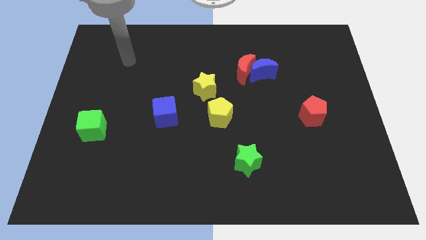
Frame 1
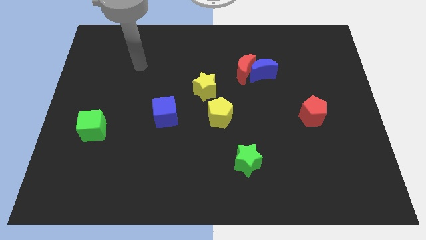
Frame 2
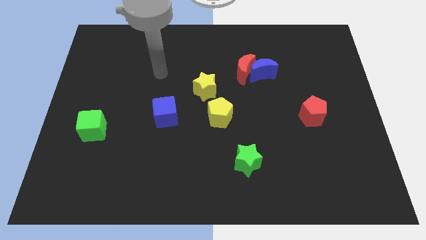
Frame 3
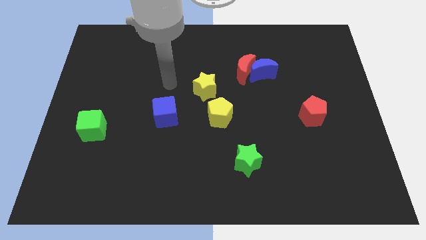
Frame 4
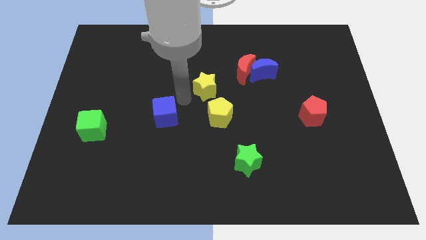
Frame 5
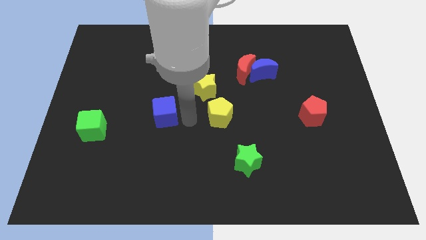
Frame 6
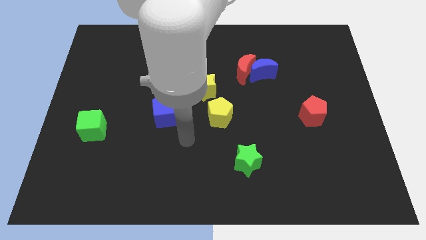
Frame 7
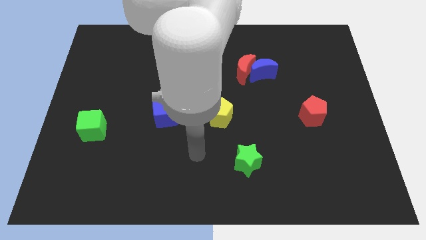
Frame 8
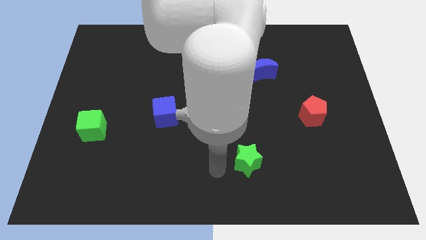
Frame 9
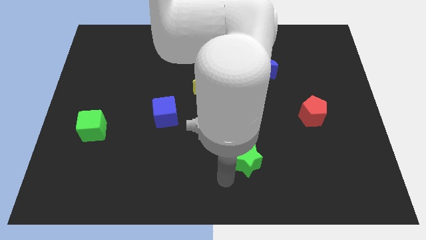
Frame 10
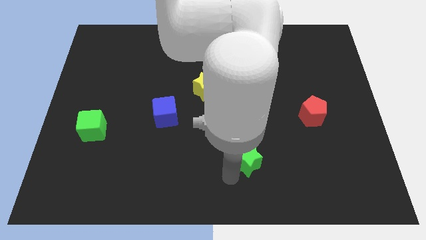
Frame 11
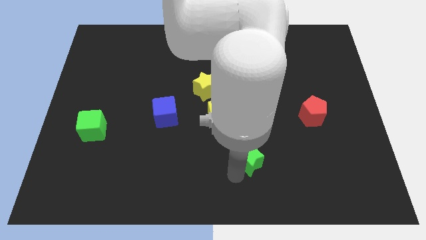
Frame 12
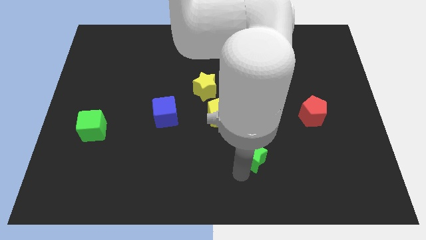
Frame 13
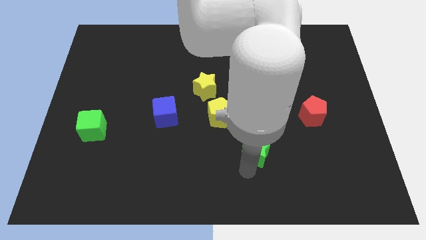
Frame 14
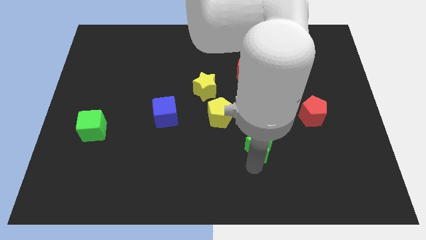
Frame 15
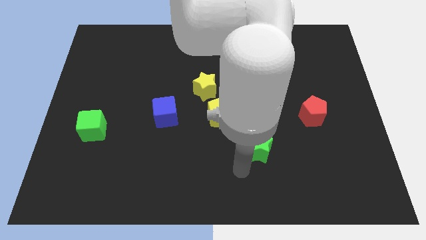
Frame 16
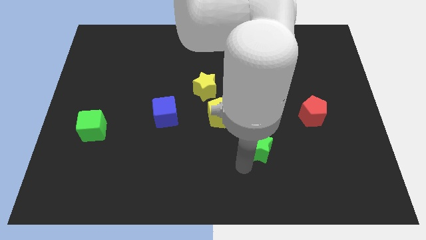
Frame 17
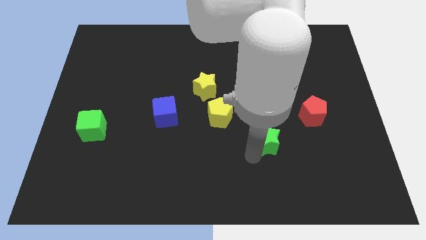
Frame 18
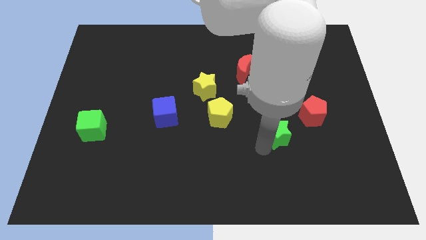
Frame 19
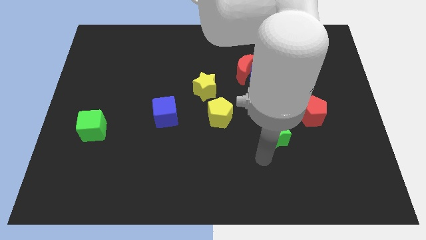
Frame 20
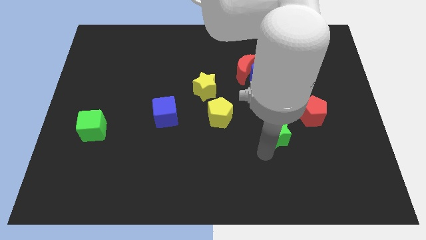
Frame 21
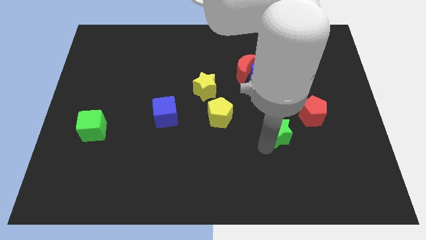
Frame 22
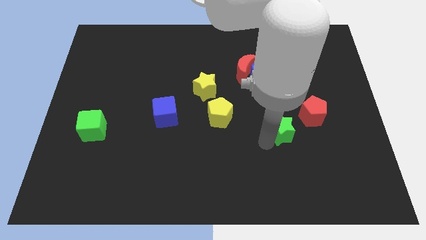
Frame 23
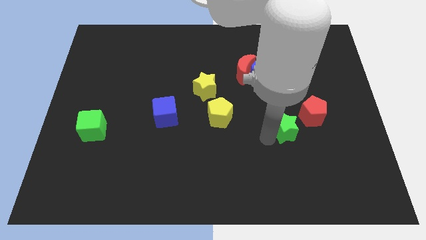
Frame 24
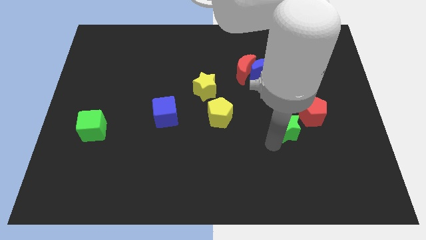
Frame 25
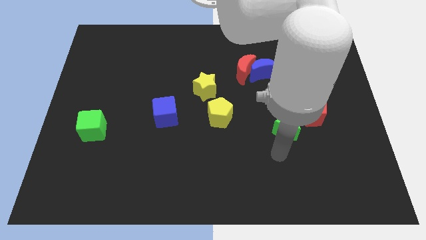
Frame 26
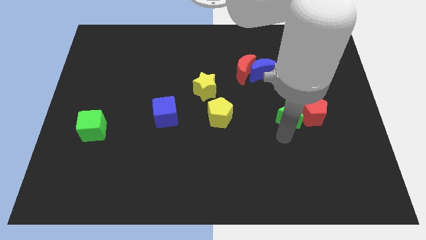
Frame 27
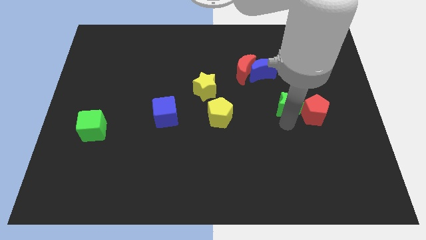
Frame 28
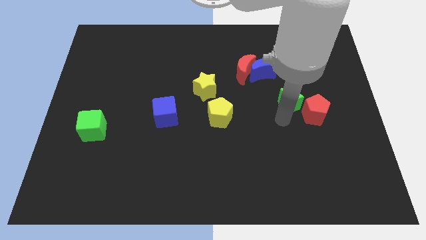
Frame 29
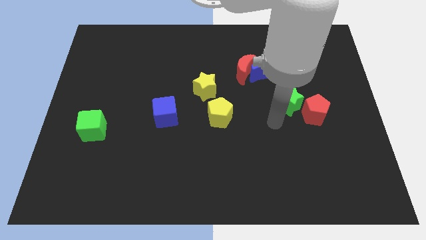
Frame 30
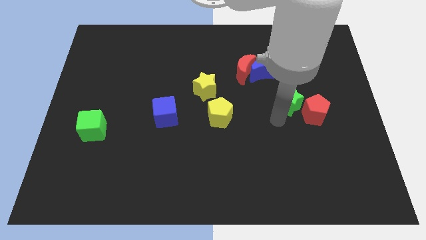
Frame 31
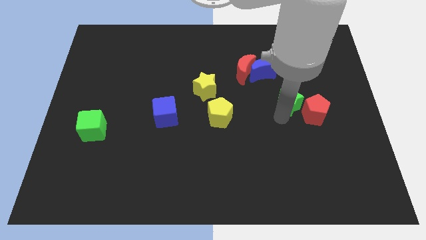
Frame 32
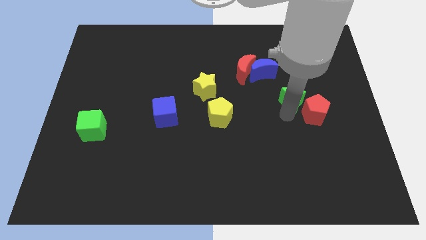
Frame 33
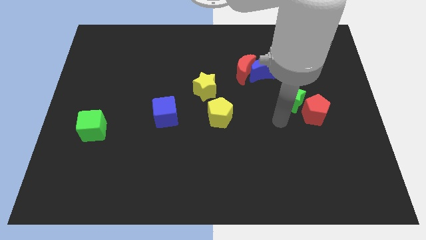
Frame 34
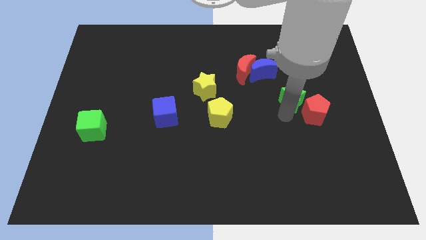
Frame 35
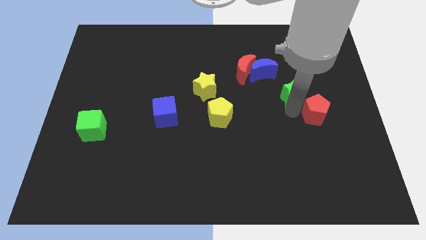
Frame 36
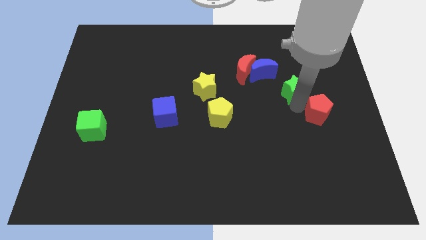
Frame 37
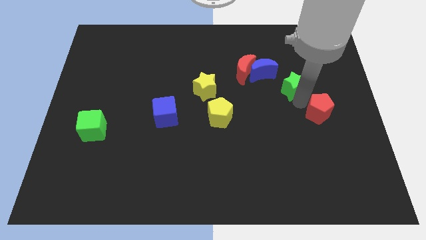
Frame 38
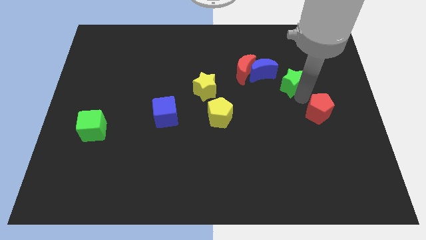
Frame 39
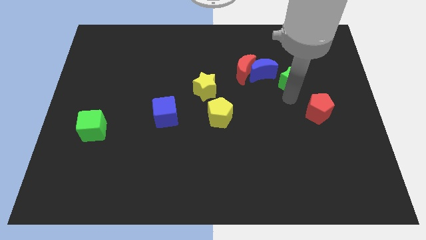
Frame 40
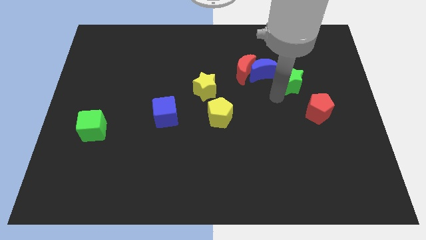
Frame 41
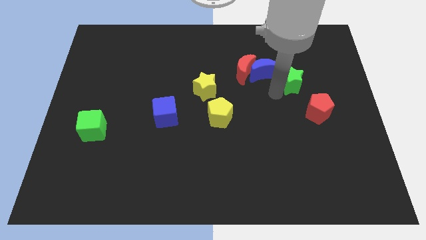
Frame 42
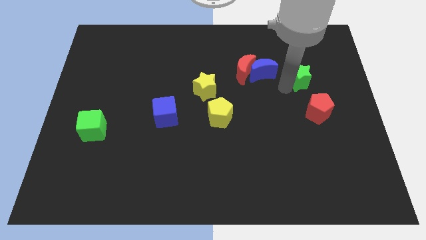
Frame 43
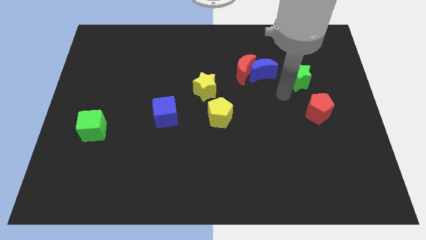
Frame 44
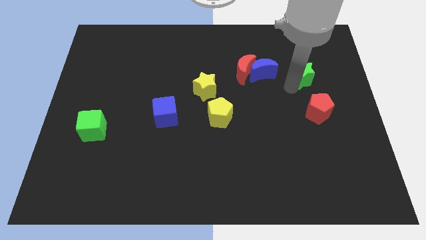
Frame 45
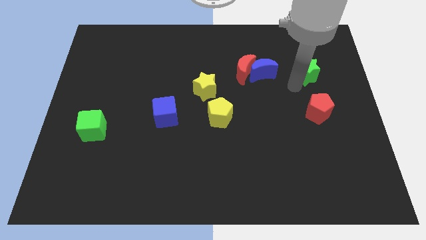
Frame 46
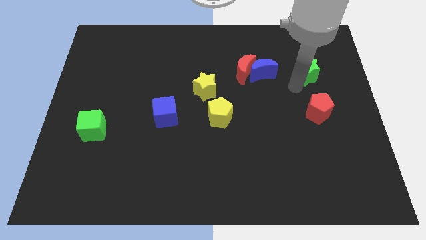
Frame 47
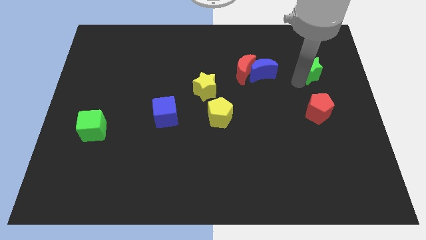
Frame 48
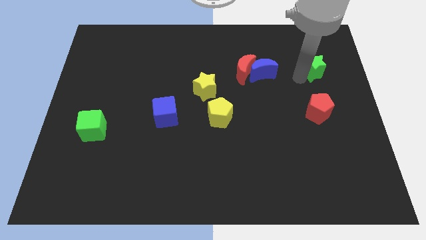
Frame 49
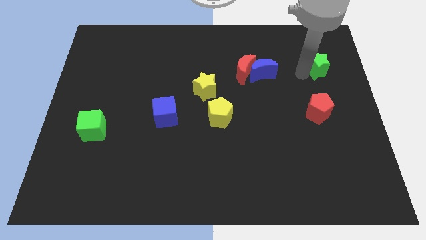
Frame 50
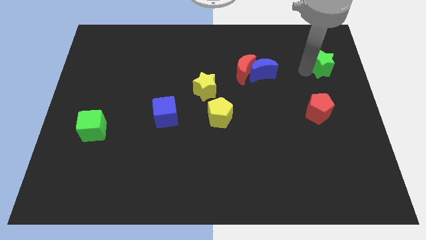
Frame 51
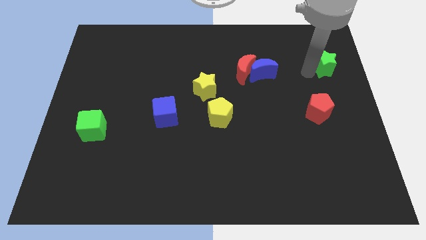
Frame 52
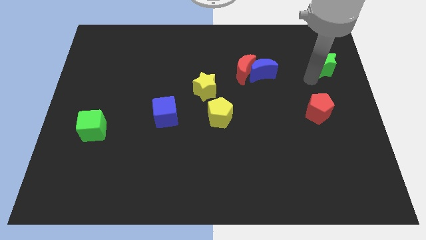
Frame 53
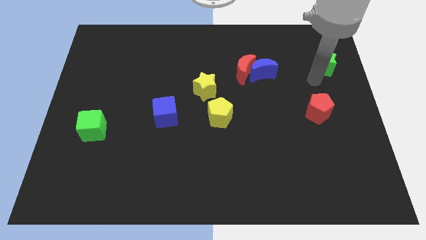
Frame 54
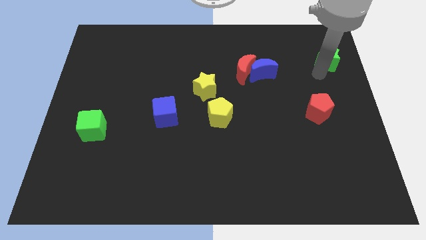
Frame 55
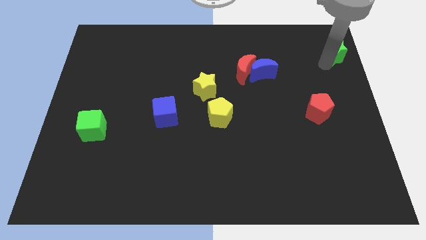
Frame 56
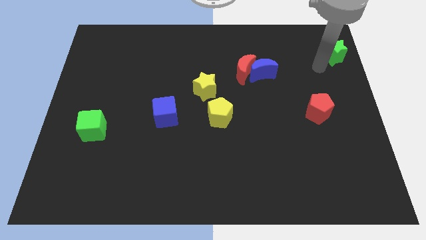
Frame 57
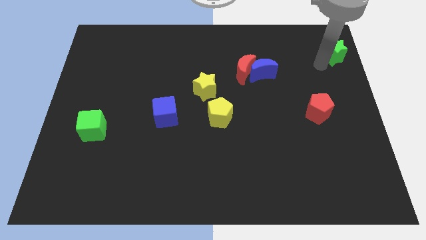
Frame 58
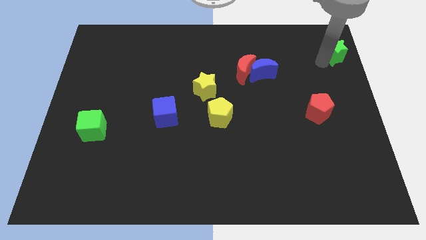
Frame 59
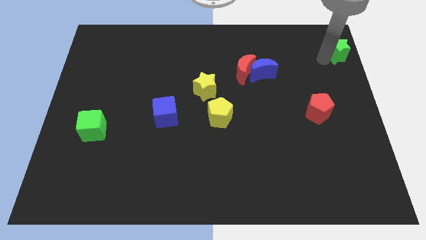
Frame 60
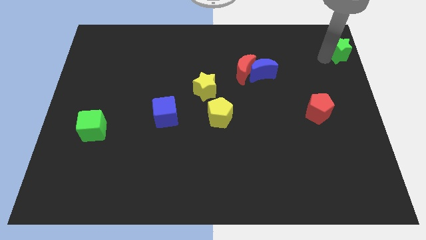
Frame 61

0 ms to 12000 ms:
move the green star to the top right of the board

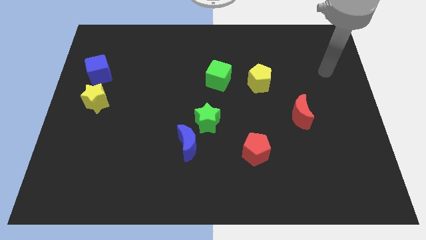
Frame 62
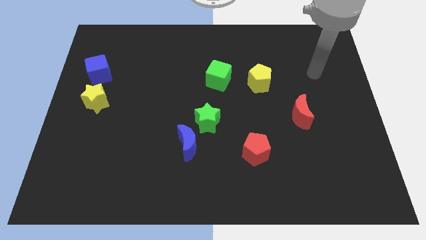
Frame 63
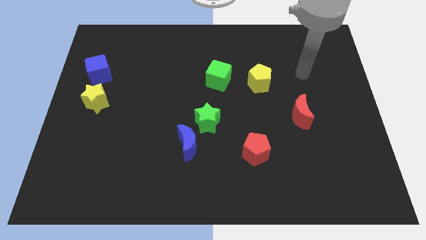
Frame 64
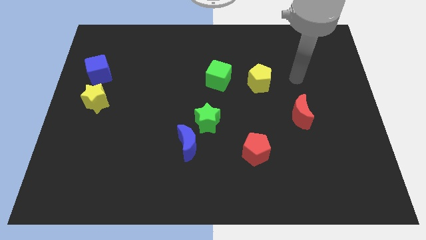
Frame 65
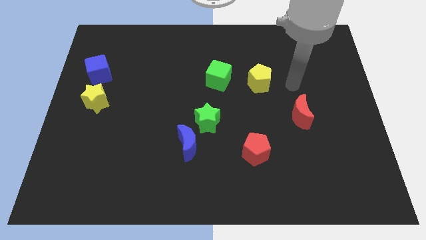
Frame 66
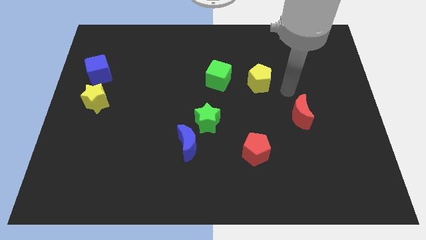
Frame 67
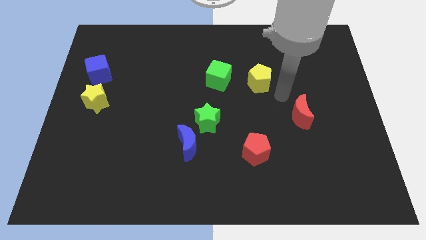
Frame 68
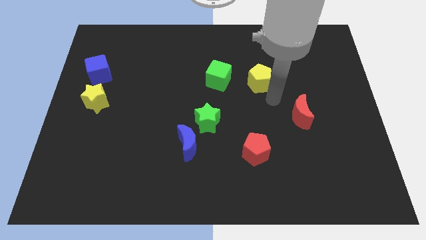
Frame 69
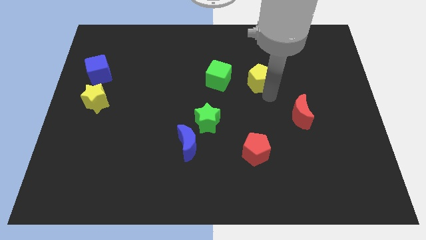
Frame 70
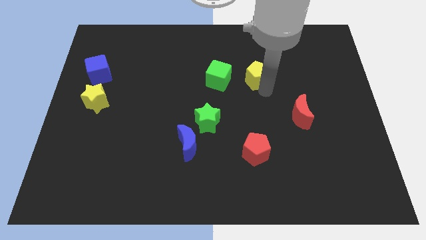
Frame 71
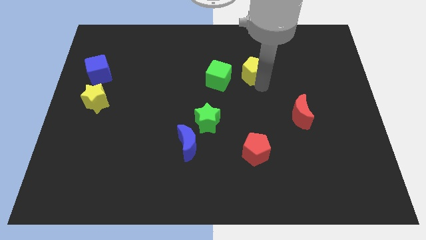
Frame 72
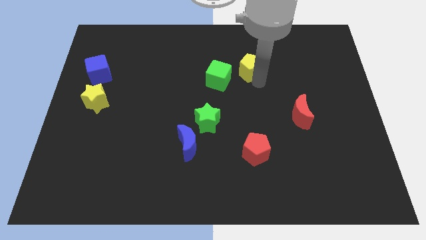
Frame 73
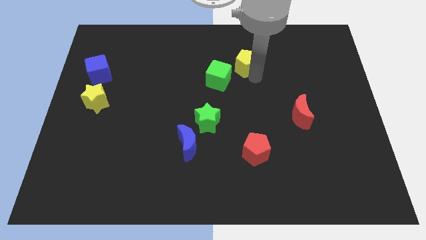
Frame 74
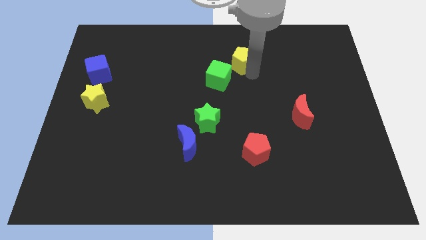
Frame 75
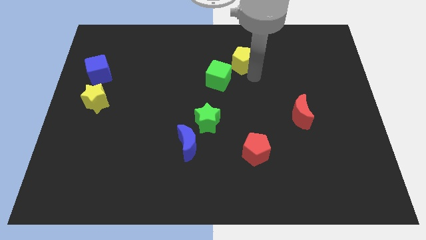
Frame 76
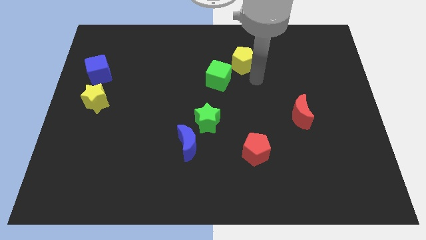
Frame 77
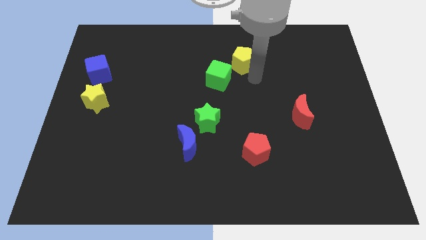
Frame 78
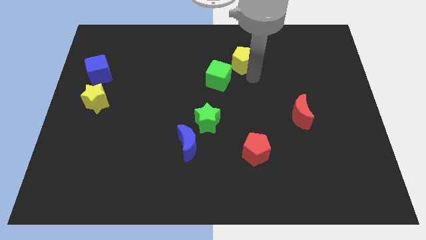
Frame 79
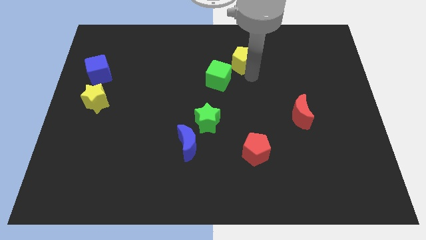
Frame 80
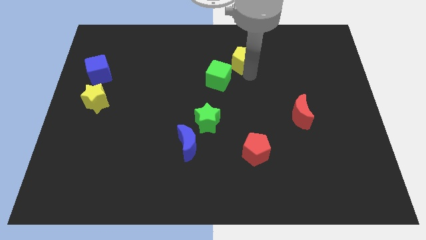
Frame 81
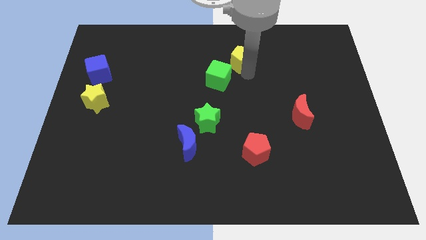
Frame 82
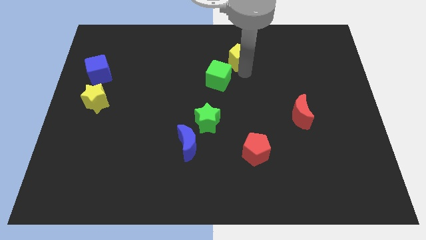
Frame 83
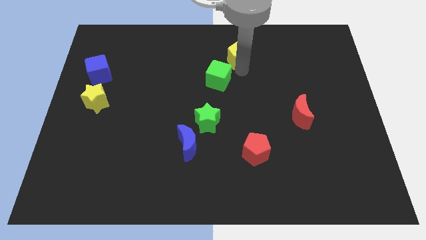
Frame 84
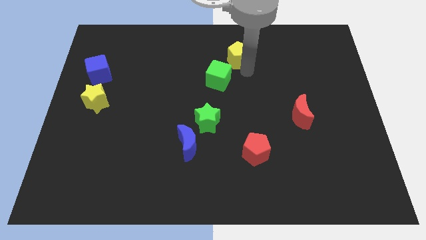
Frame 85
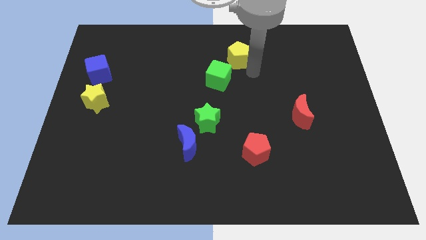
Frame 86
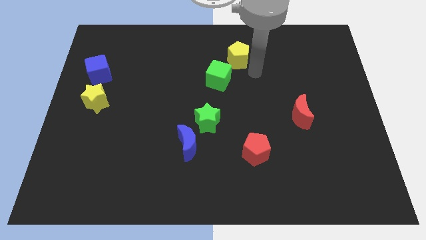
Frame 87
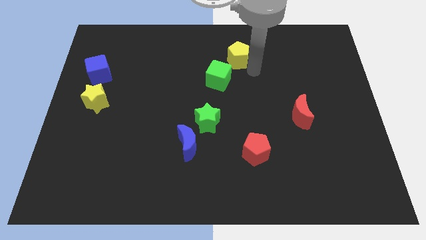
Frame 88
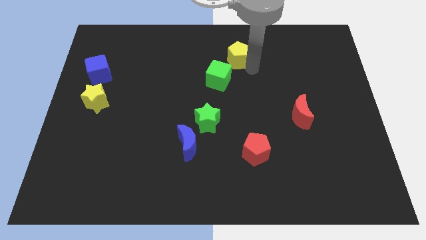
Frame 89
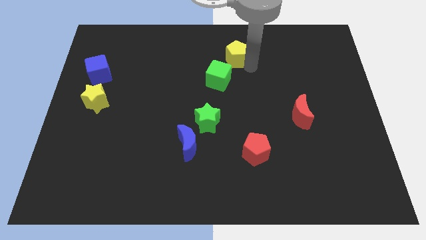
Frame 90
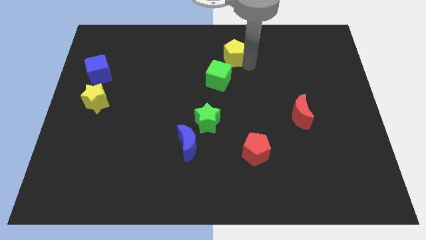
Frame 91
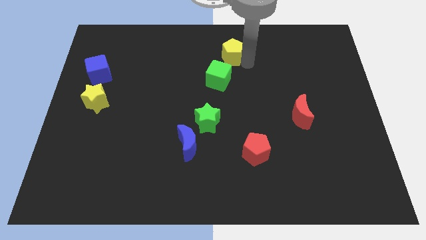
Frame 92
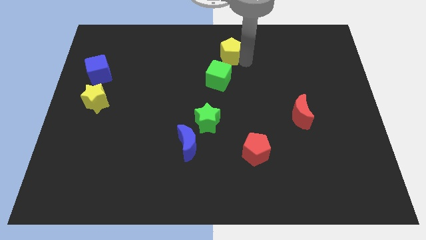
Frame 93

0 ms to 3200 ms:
move the yellow pentagon to the top
